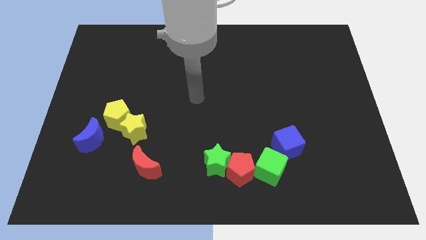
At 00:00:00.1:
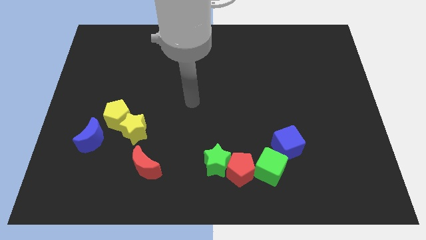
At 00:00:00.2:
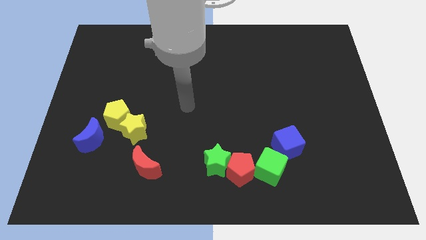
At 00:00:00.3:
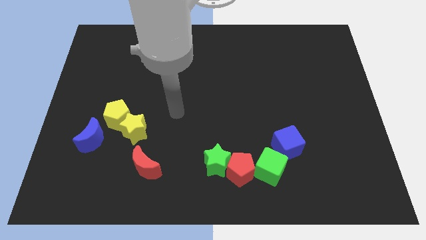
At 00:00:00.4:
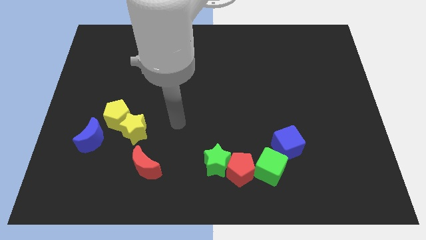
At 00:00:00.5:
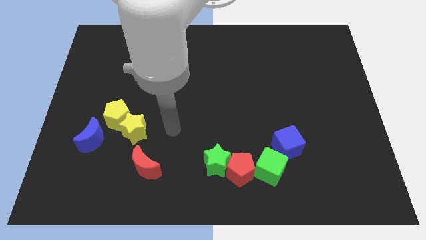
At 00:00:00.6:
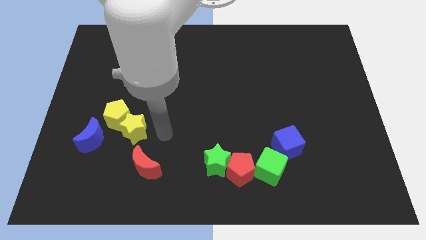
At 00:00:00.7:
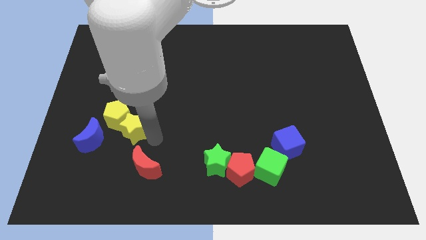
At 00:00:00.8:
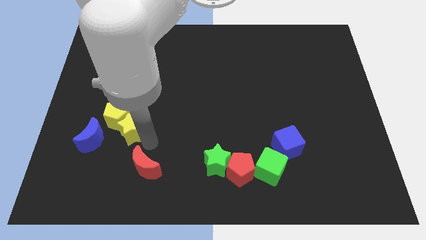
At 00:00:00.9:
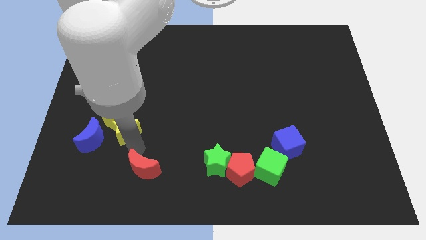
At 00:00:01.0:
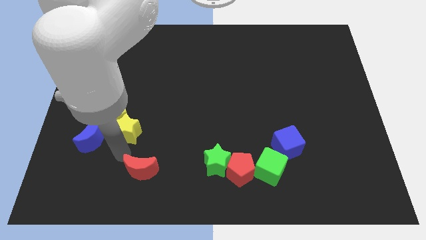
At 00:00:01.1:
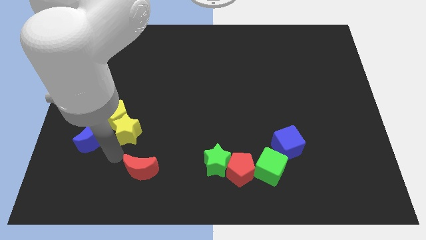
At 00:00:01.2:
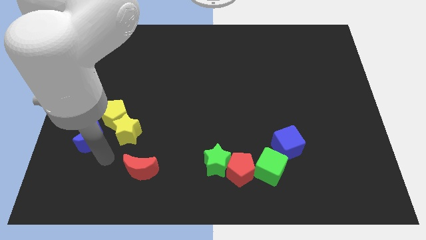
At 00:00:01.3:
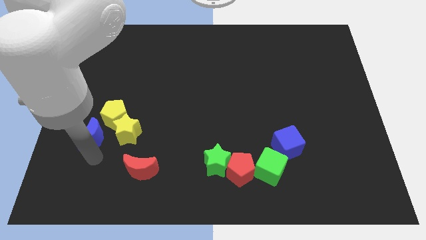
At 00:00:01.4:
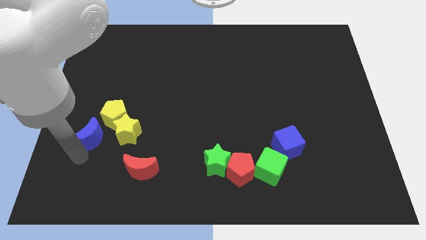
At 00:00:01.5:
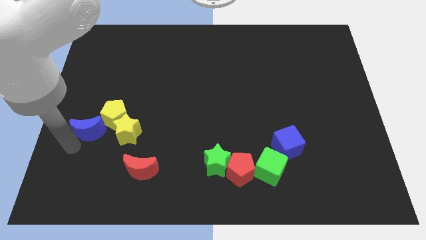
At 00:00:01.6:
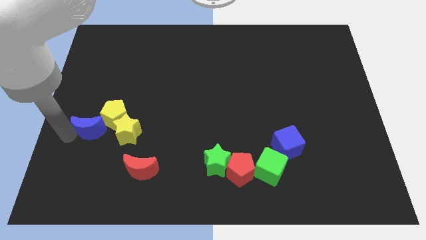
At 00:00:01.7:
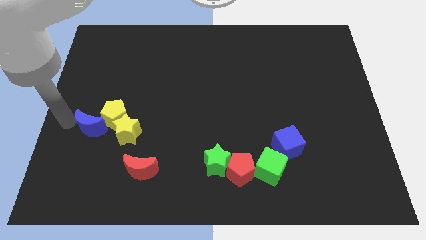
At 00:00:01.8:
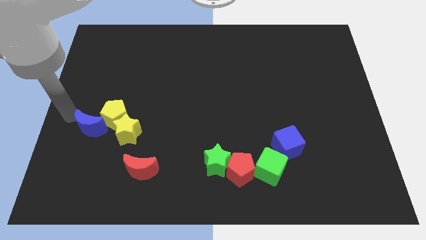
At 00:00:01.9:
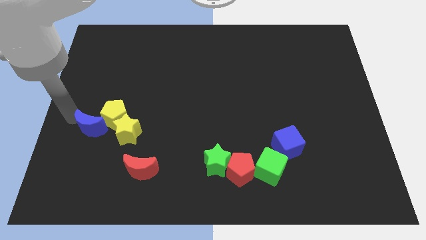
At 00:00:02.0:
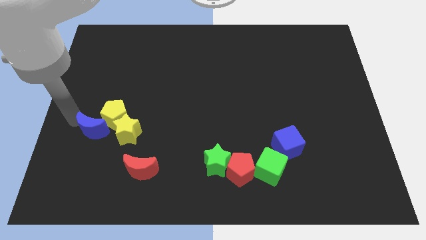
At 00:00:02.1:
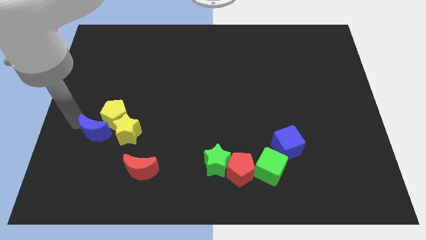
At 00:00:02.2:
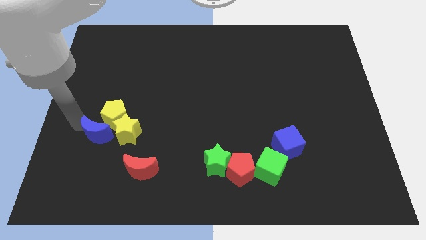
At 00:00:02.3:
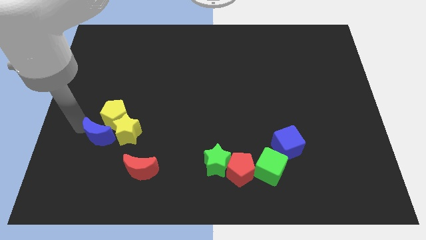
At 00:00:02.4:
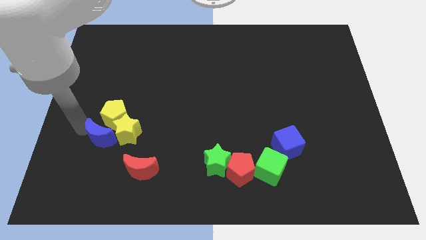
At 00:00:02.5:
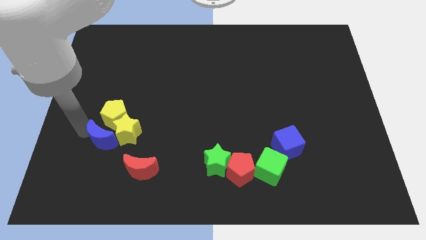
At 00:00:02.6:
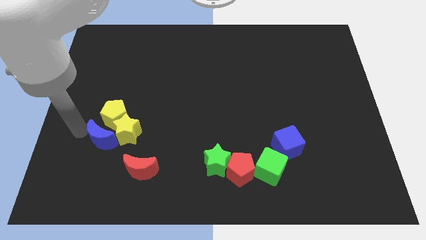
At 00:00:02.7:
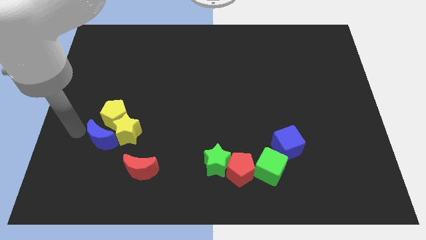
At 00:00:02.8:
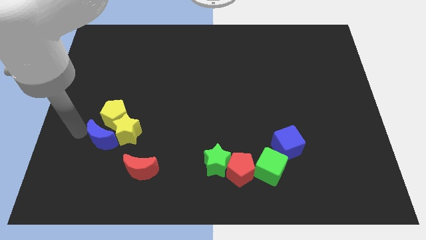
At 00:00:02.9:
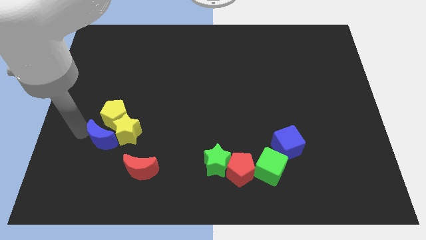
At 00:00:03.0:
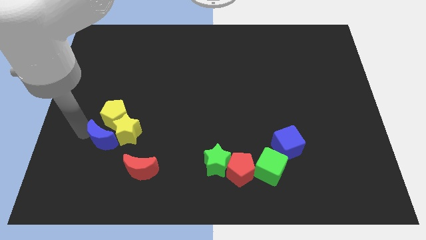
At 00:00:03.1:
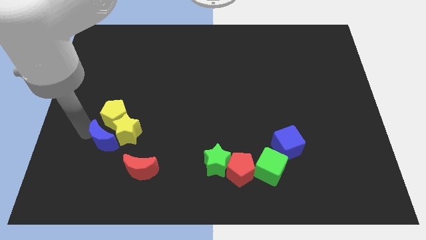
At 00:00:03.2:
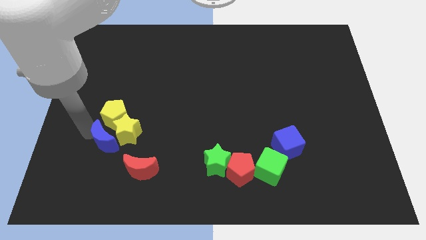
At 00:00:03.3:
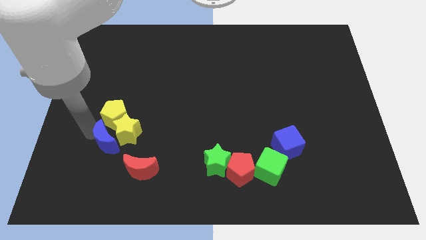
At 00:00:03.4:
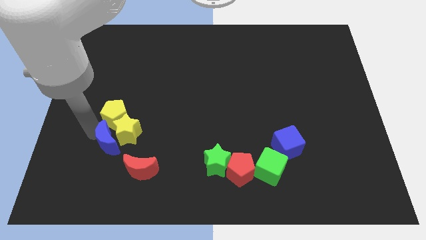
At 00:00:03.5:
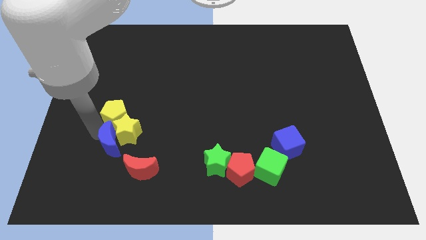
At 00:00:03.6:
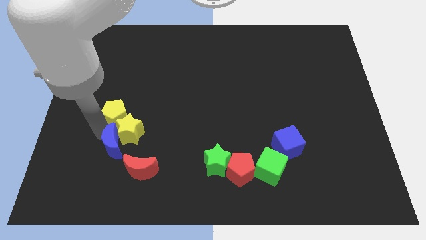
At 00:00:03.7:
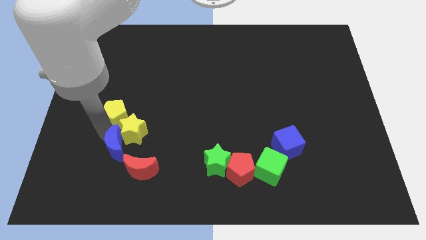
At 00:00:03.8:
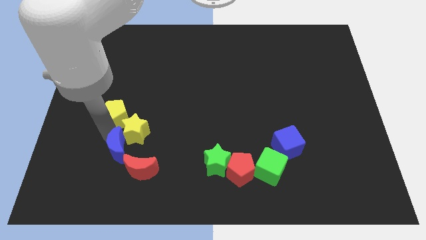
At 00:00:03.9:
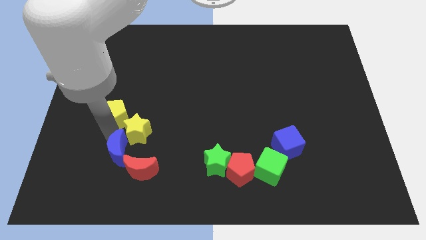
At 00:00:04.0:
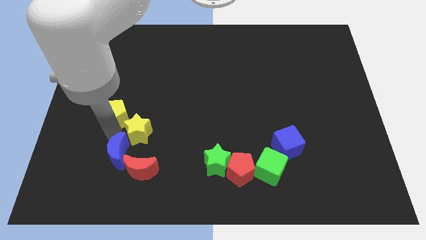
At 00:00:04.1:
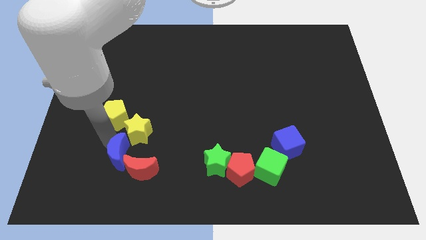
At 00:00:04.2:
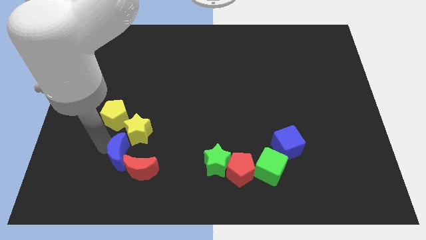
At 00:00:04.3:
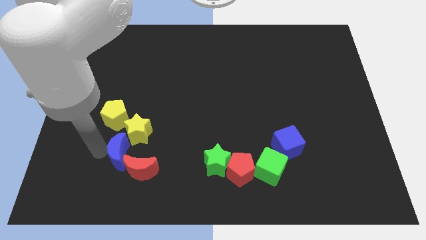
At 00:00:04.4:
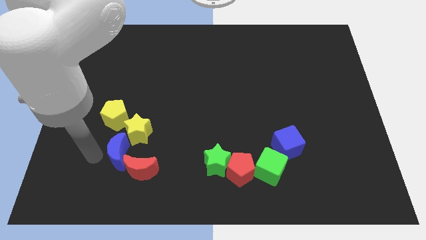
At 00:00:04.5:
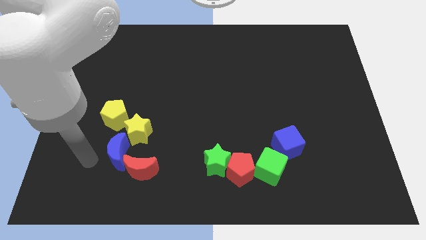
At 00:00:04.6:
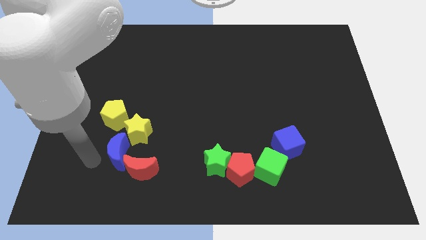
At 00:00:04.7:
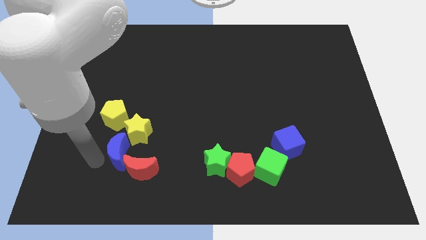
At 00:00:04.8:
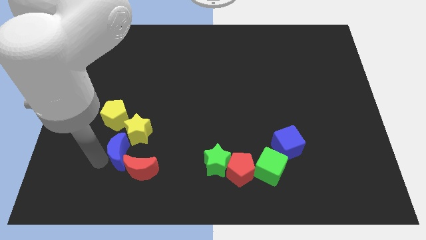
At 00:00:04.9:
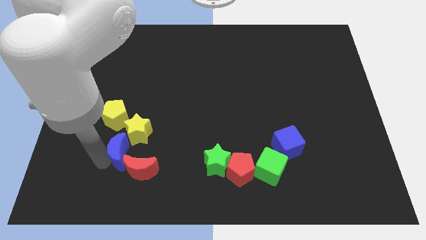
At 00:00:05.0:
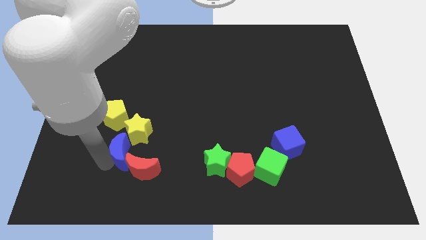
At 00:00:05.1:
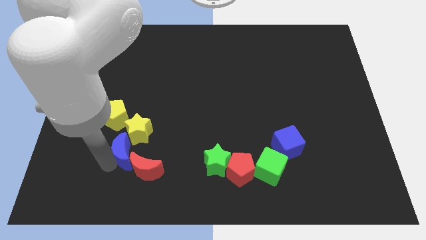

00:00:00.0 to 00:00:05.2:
slide the blue moon a little to the right

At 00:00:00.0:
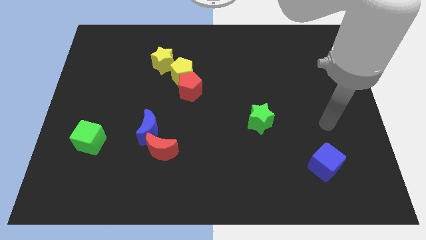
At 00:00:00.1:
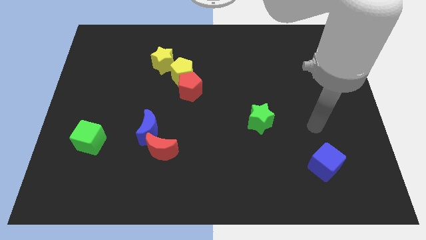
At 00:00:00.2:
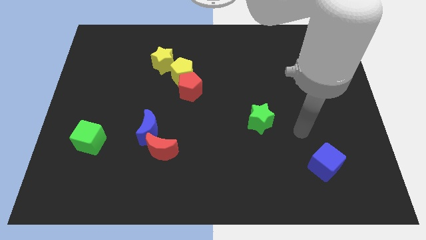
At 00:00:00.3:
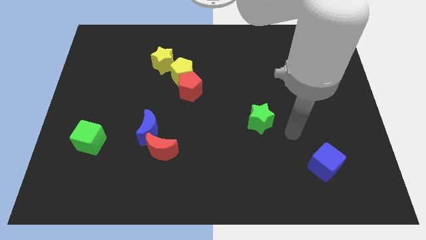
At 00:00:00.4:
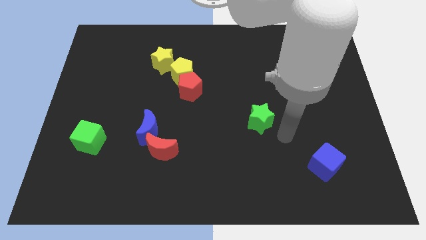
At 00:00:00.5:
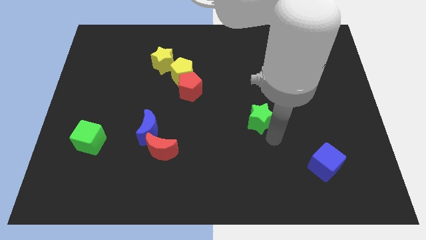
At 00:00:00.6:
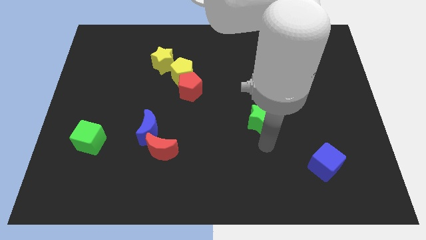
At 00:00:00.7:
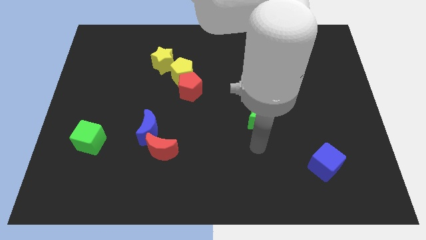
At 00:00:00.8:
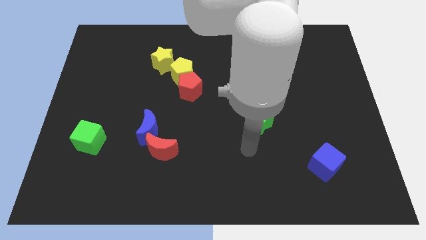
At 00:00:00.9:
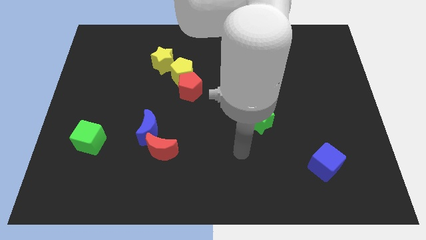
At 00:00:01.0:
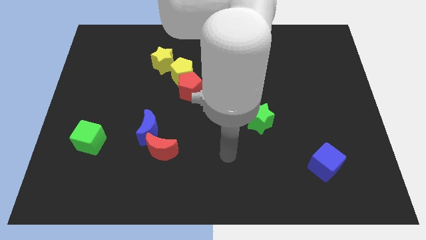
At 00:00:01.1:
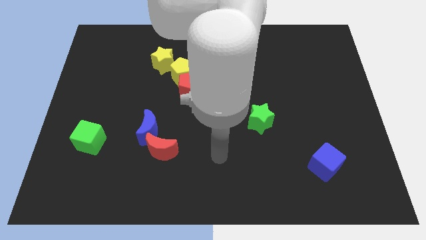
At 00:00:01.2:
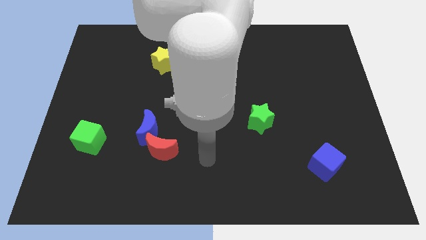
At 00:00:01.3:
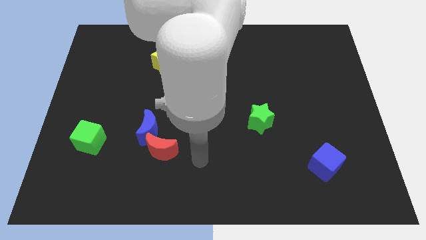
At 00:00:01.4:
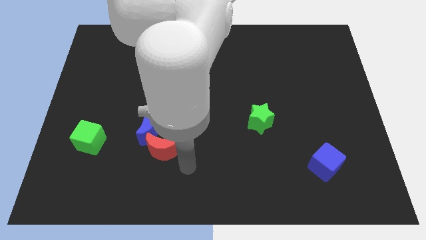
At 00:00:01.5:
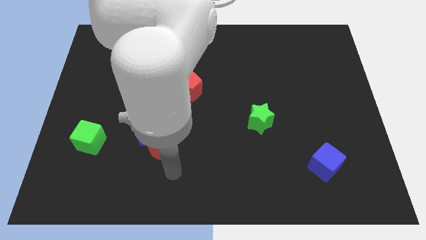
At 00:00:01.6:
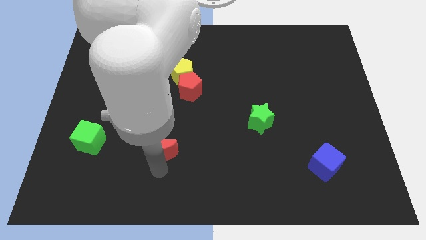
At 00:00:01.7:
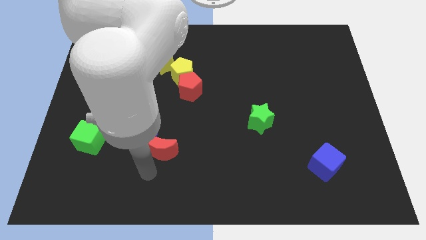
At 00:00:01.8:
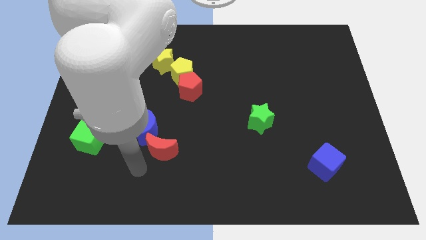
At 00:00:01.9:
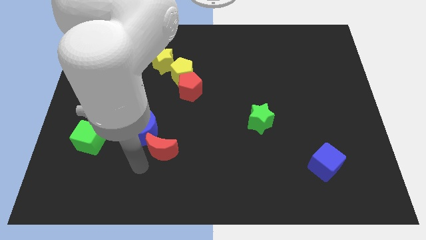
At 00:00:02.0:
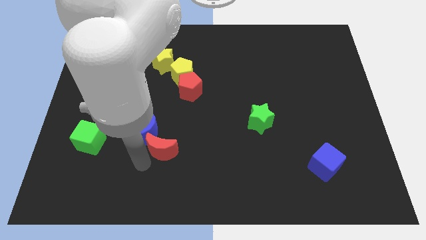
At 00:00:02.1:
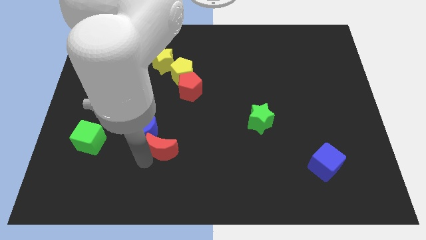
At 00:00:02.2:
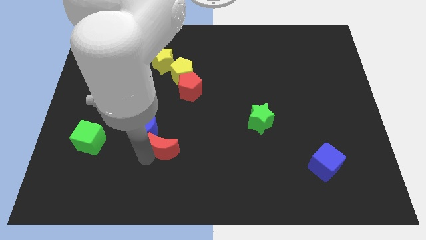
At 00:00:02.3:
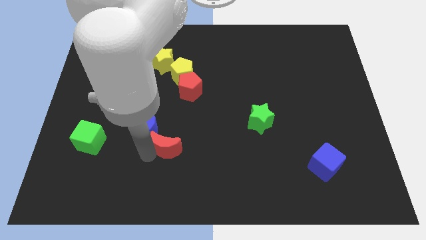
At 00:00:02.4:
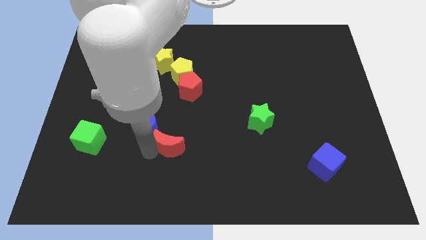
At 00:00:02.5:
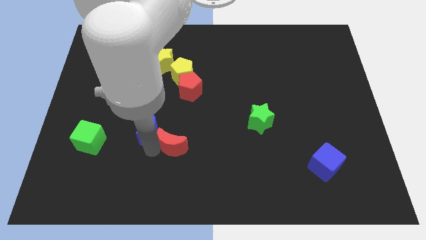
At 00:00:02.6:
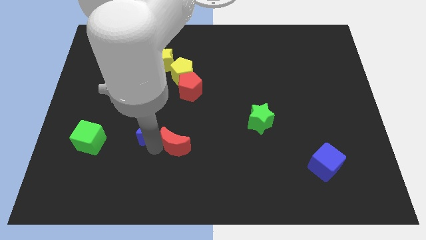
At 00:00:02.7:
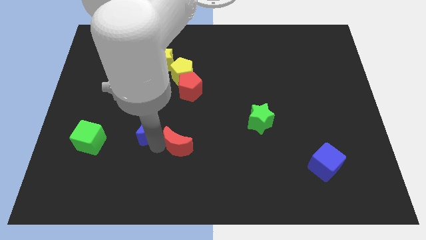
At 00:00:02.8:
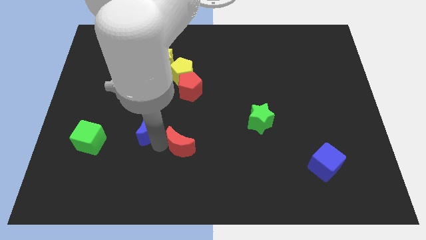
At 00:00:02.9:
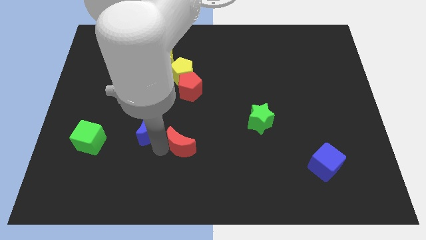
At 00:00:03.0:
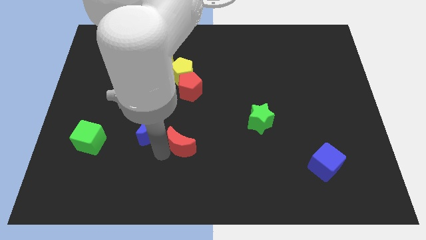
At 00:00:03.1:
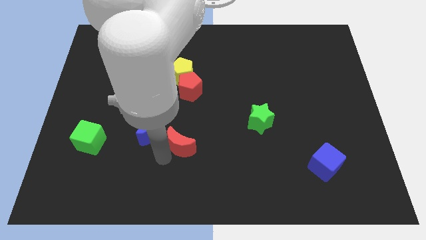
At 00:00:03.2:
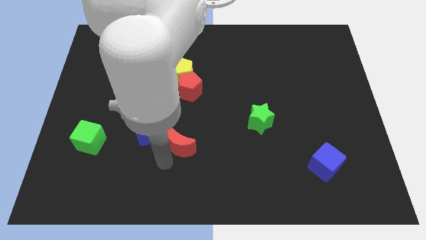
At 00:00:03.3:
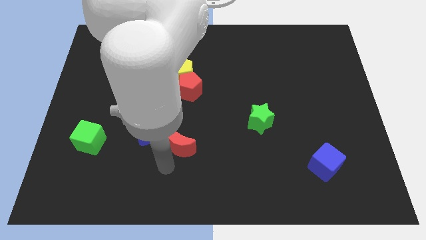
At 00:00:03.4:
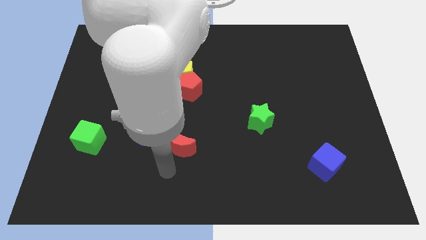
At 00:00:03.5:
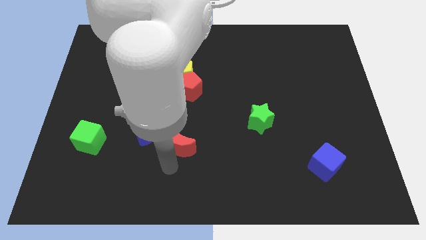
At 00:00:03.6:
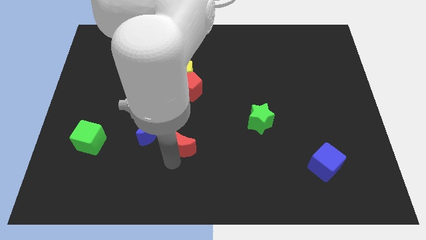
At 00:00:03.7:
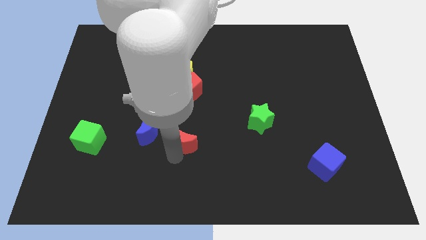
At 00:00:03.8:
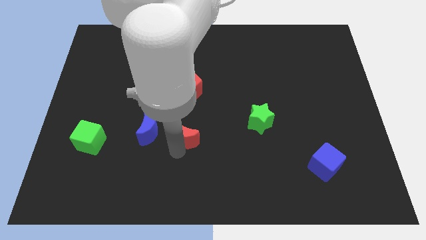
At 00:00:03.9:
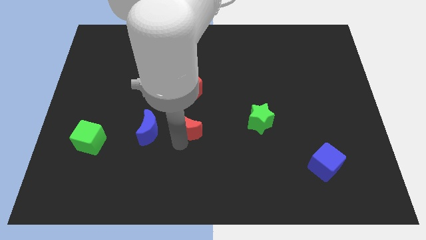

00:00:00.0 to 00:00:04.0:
slide the red moon somewhat diagonally up and to the right
